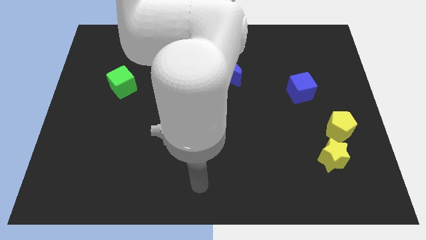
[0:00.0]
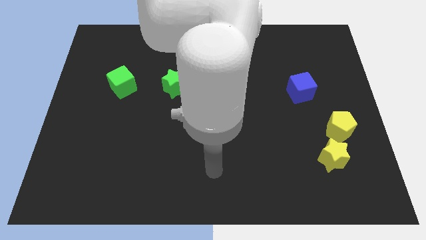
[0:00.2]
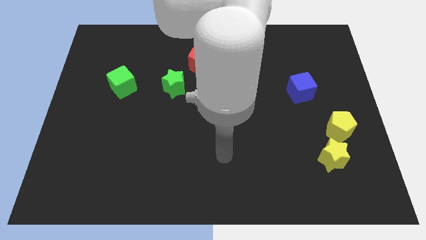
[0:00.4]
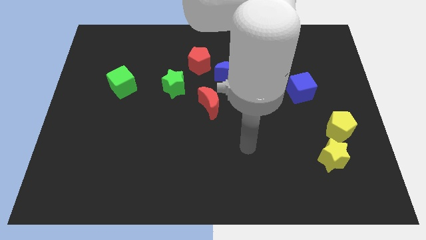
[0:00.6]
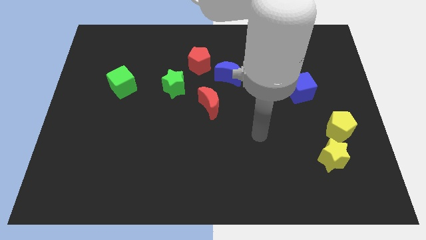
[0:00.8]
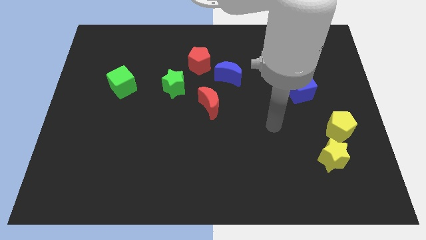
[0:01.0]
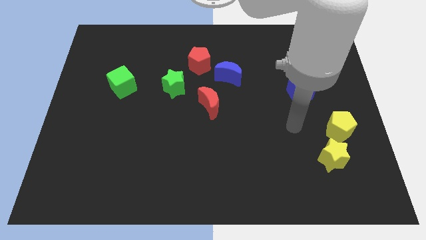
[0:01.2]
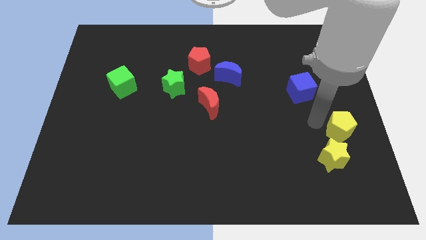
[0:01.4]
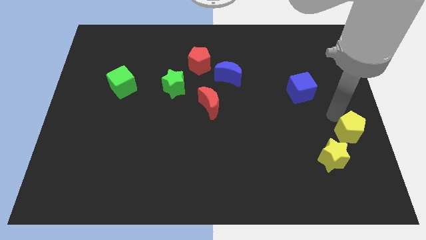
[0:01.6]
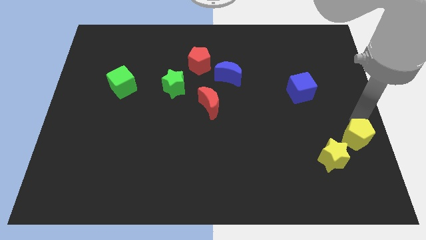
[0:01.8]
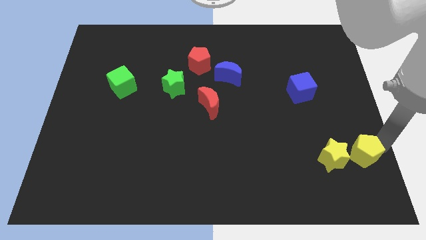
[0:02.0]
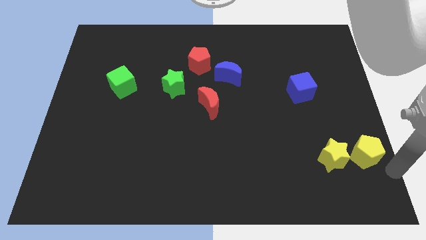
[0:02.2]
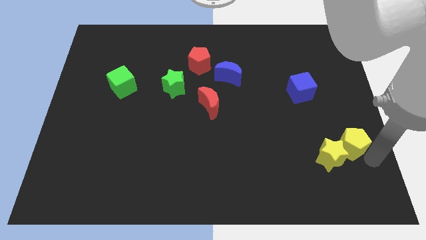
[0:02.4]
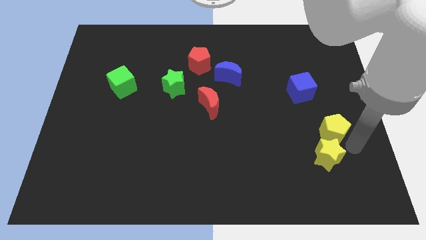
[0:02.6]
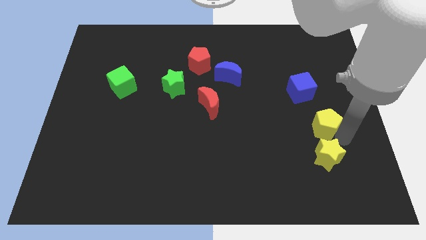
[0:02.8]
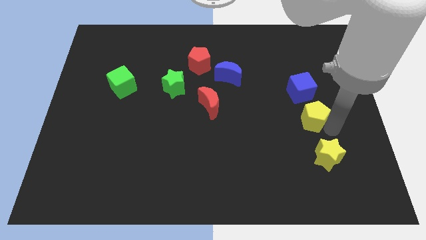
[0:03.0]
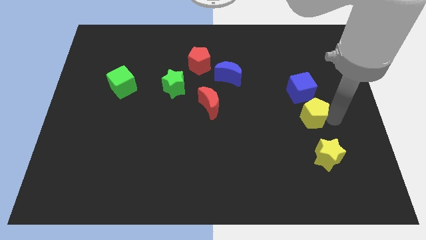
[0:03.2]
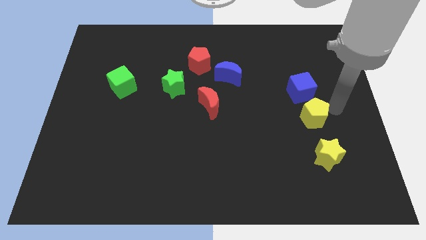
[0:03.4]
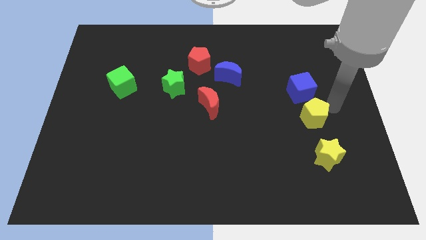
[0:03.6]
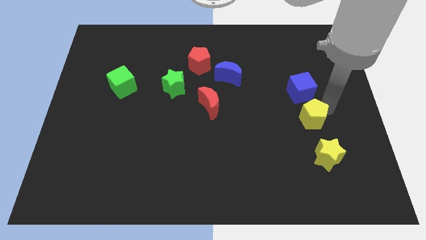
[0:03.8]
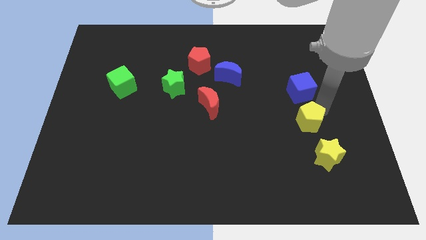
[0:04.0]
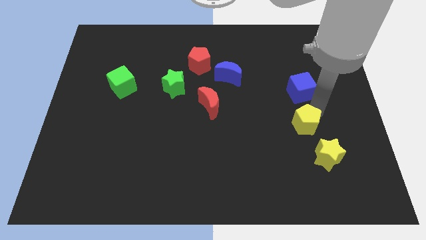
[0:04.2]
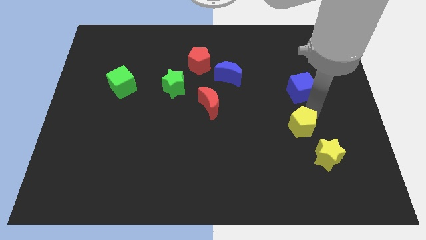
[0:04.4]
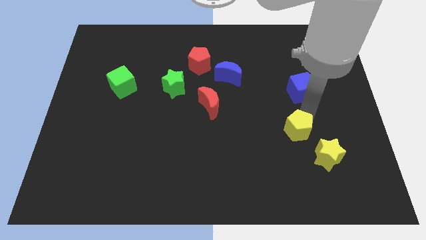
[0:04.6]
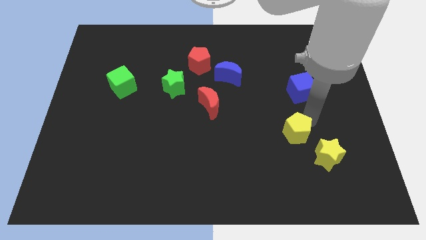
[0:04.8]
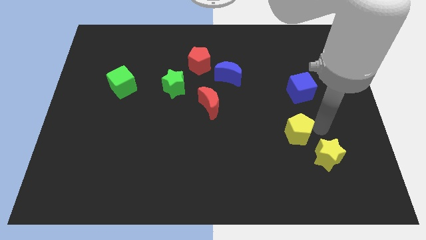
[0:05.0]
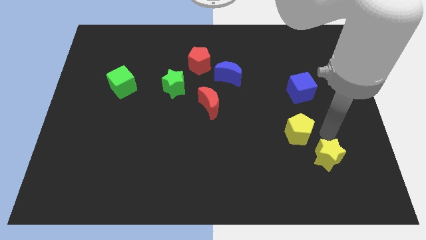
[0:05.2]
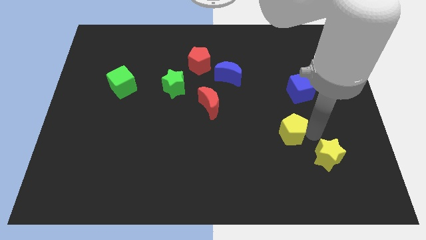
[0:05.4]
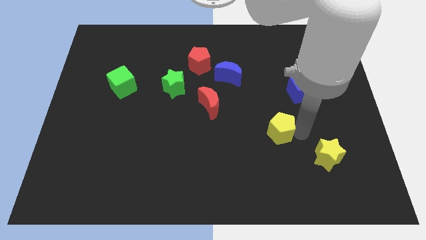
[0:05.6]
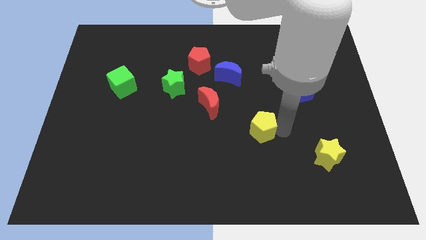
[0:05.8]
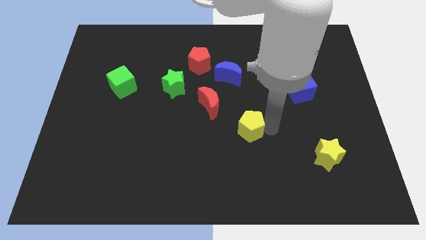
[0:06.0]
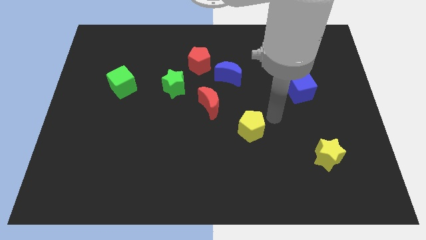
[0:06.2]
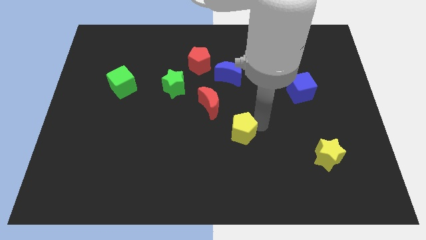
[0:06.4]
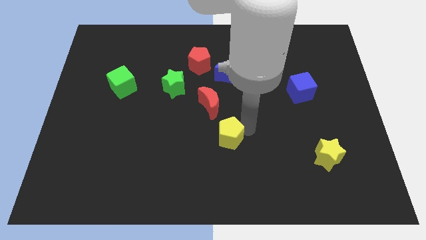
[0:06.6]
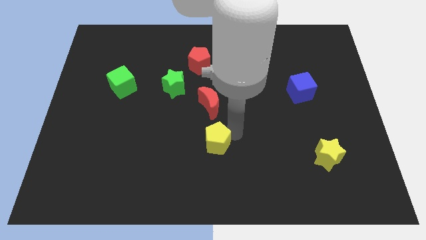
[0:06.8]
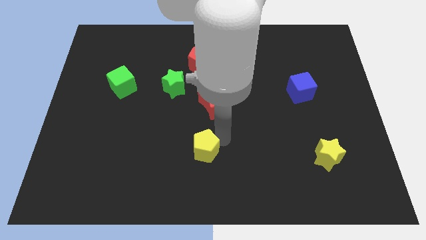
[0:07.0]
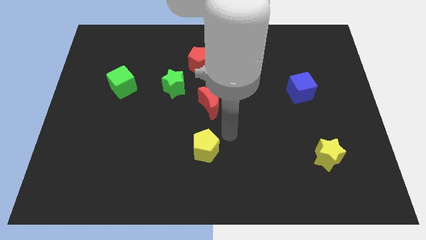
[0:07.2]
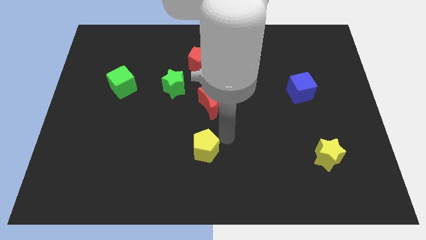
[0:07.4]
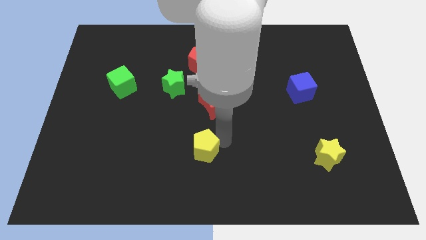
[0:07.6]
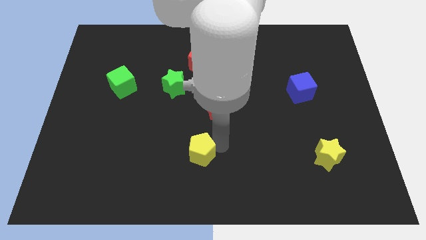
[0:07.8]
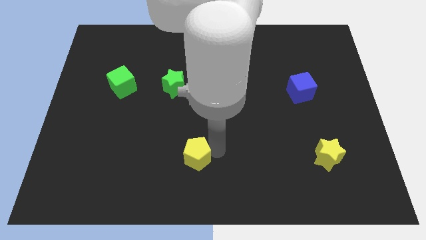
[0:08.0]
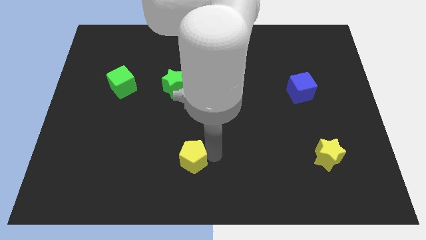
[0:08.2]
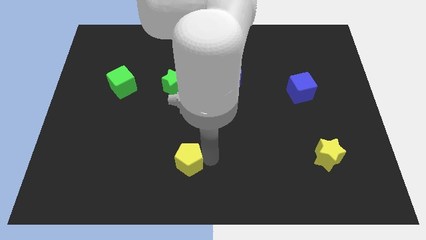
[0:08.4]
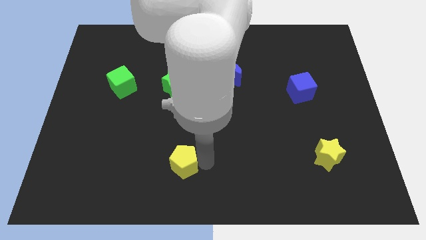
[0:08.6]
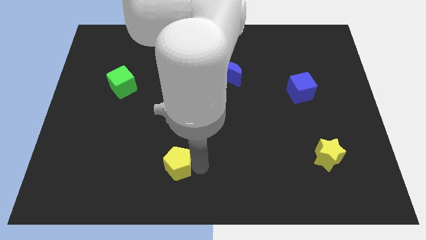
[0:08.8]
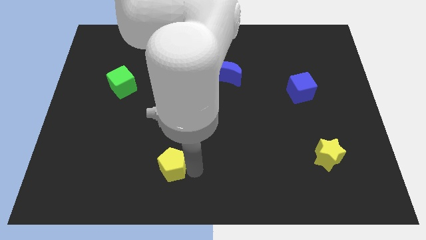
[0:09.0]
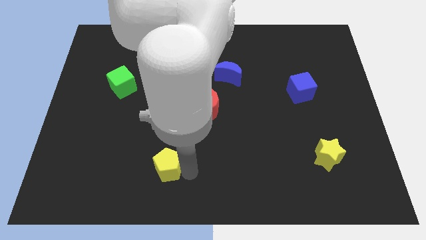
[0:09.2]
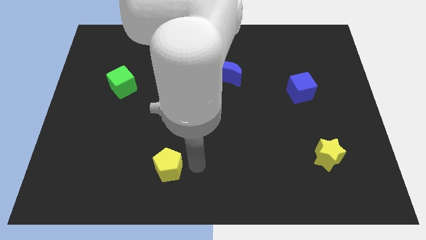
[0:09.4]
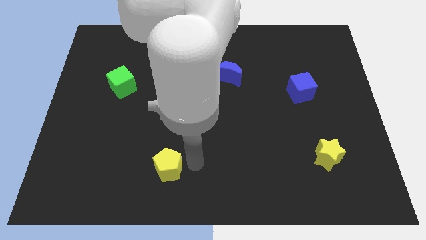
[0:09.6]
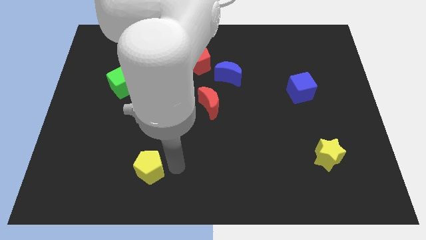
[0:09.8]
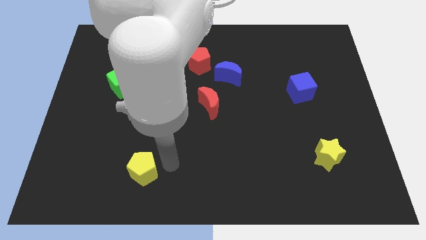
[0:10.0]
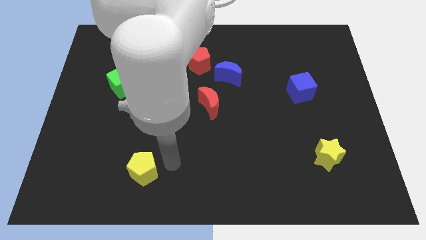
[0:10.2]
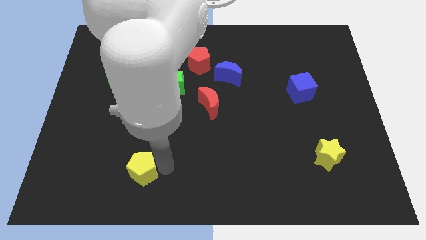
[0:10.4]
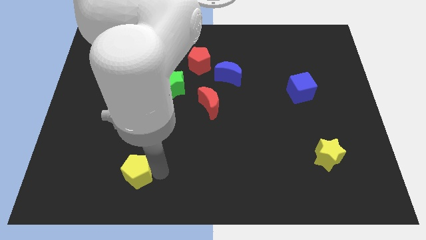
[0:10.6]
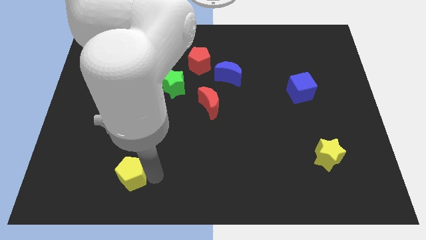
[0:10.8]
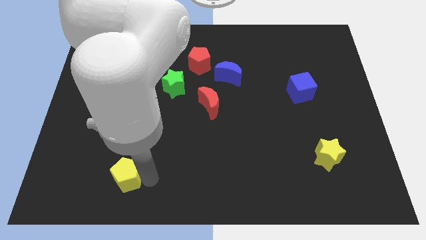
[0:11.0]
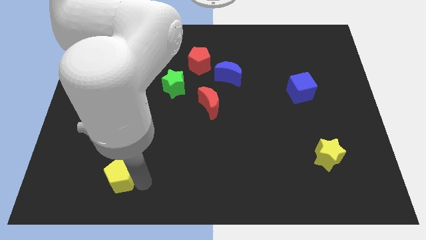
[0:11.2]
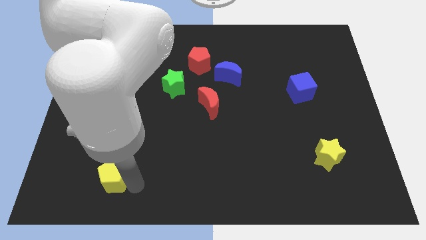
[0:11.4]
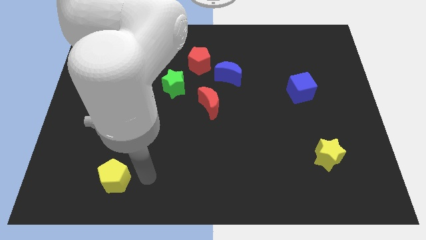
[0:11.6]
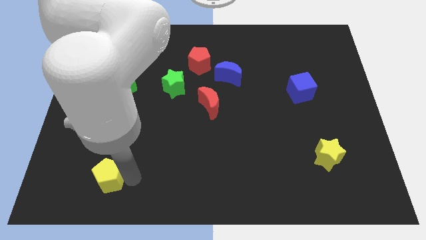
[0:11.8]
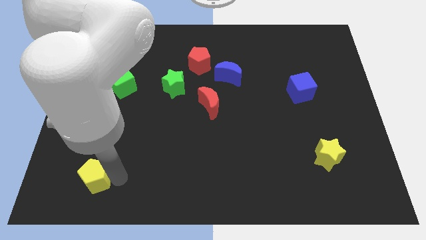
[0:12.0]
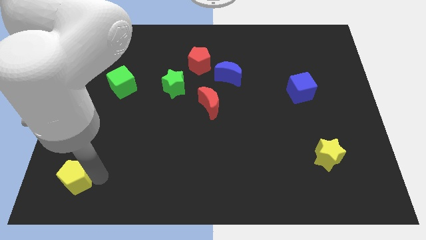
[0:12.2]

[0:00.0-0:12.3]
put the yellow pentagon to the lower left corner
